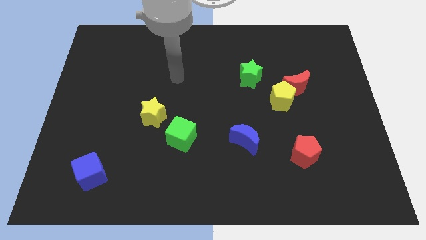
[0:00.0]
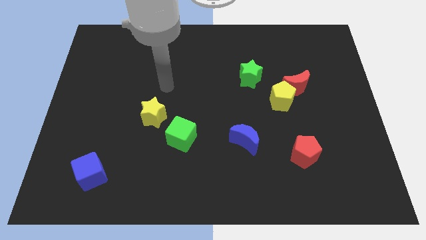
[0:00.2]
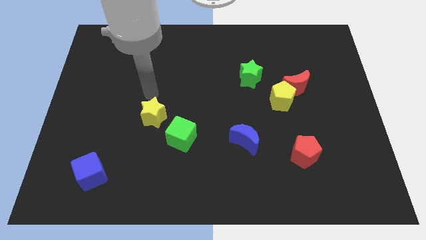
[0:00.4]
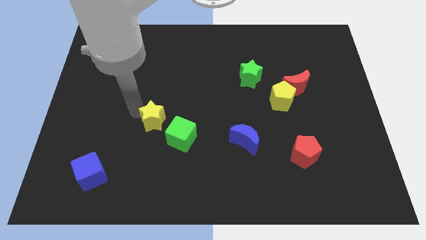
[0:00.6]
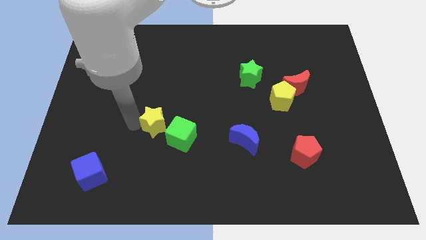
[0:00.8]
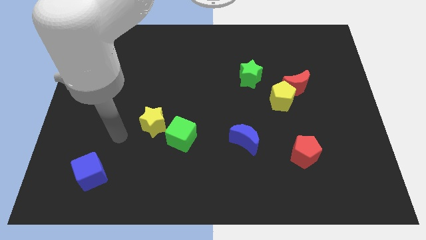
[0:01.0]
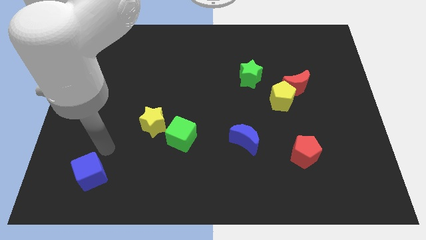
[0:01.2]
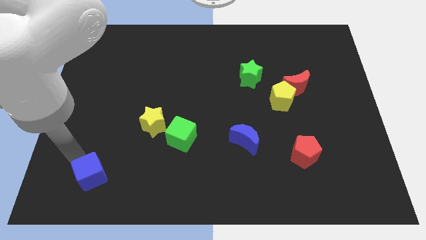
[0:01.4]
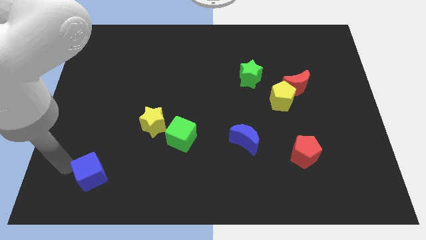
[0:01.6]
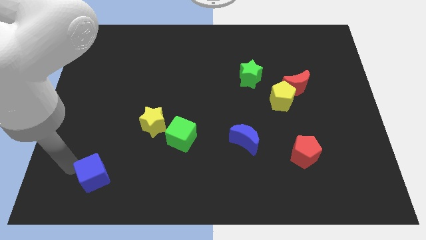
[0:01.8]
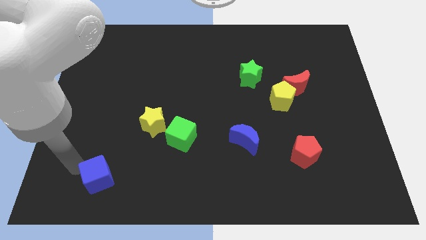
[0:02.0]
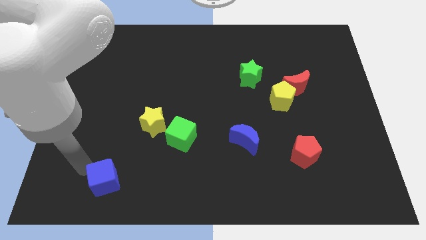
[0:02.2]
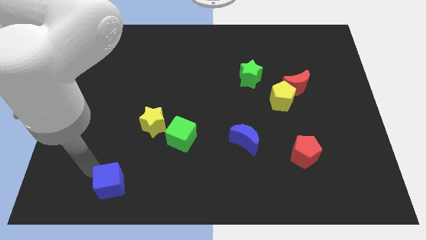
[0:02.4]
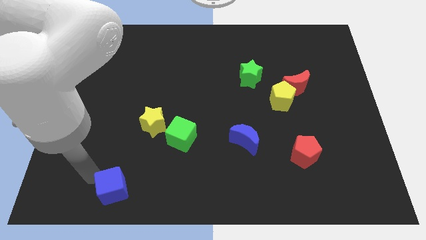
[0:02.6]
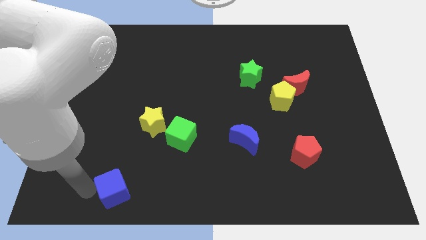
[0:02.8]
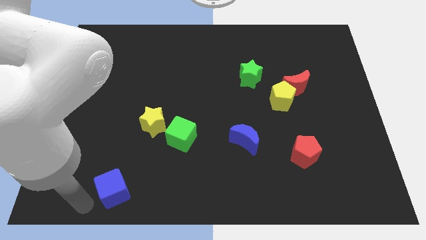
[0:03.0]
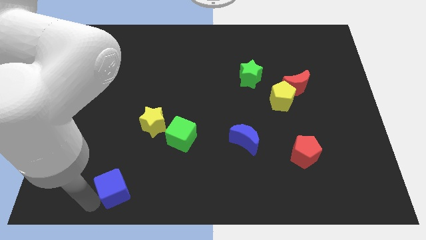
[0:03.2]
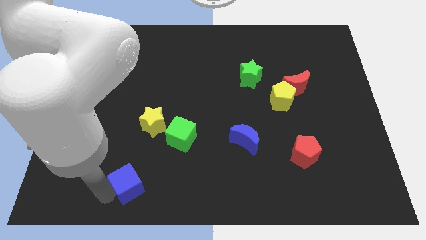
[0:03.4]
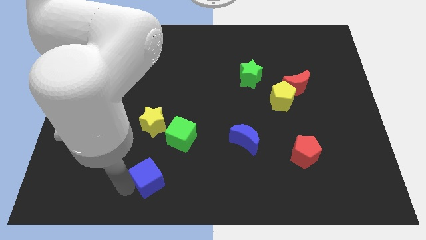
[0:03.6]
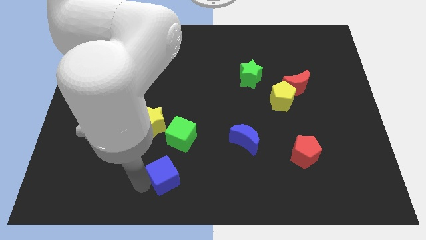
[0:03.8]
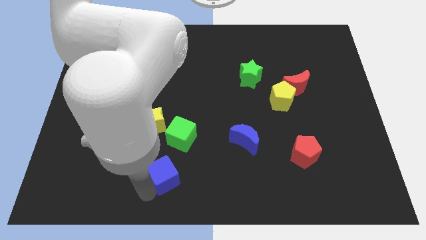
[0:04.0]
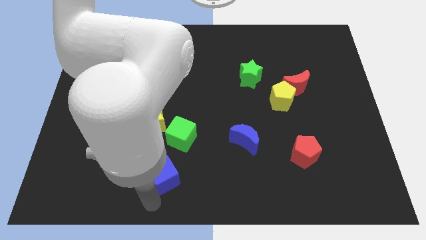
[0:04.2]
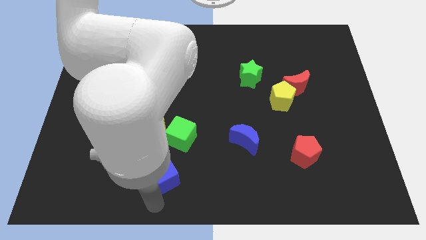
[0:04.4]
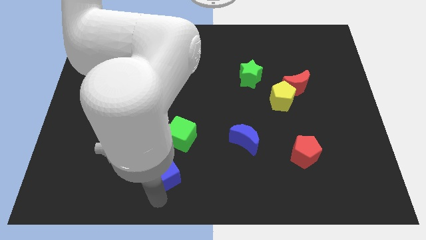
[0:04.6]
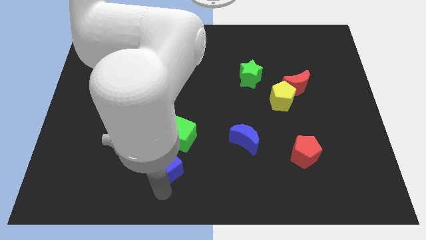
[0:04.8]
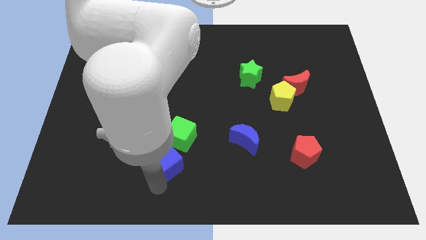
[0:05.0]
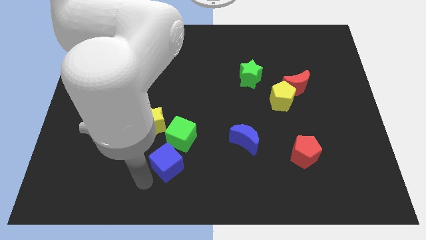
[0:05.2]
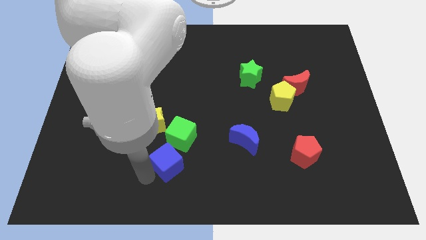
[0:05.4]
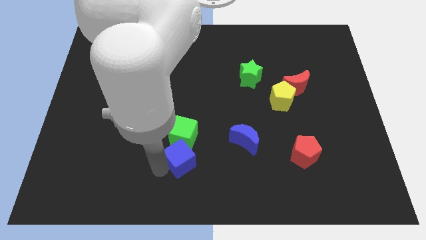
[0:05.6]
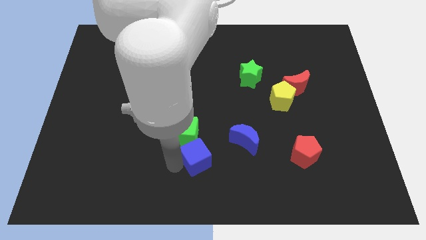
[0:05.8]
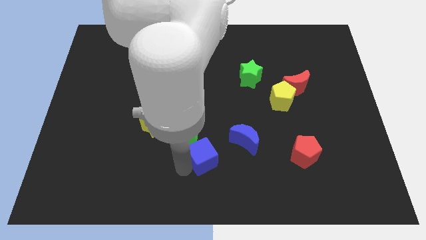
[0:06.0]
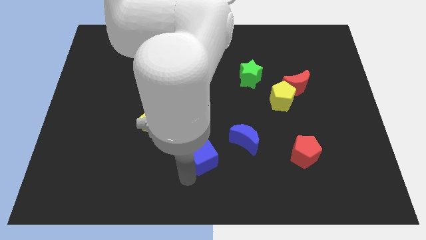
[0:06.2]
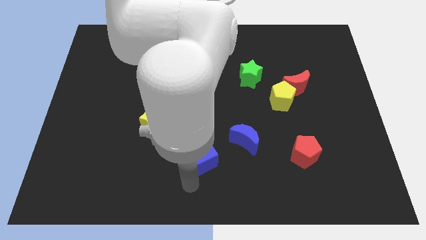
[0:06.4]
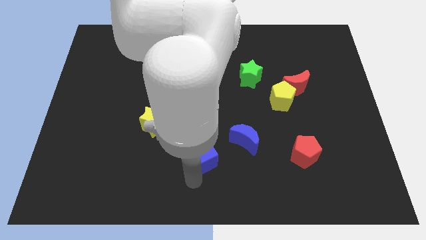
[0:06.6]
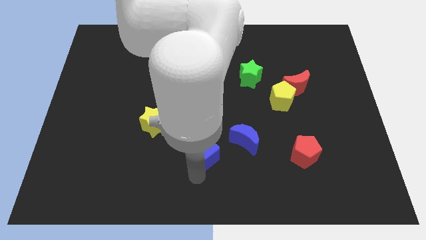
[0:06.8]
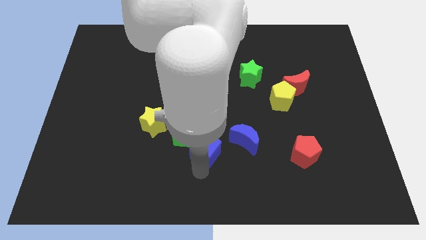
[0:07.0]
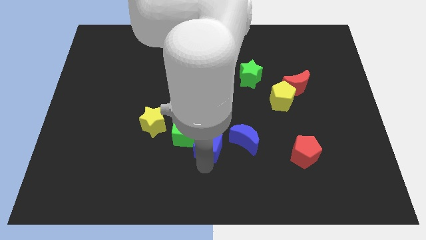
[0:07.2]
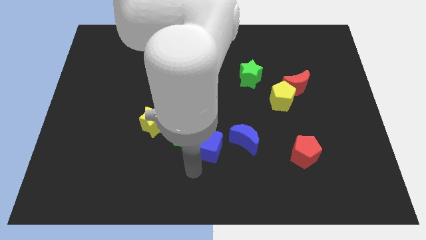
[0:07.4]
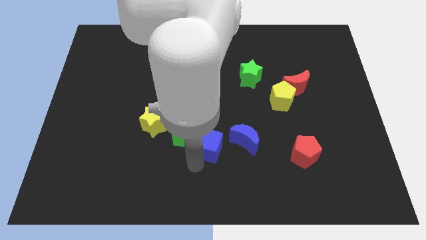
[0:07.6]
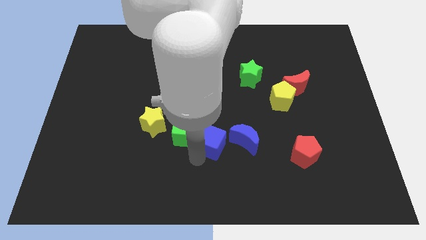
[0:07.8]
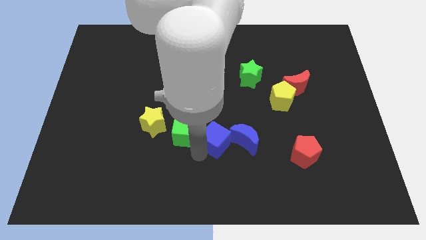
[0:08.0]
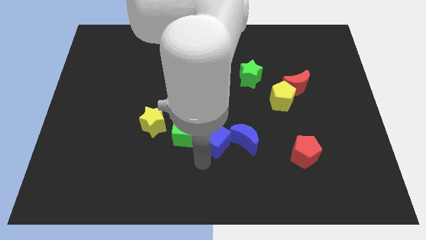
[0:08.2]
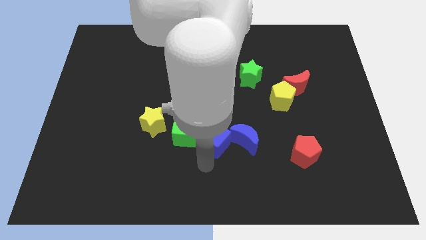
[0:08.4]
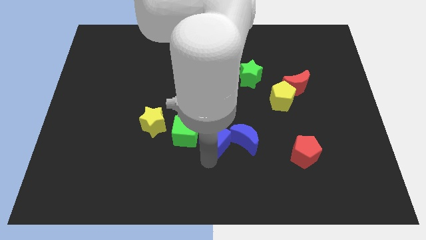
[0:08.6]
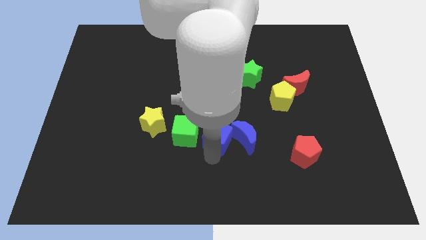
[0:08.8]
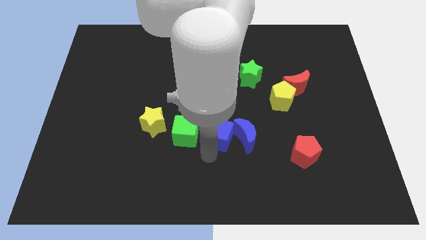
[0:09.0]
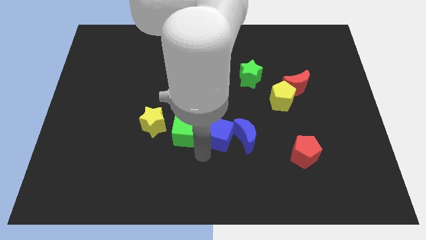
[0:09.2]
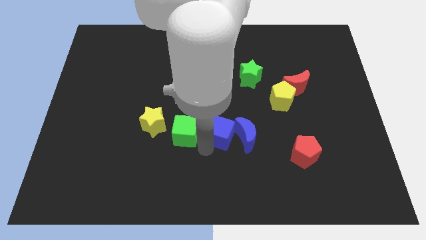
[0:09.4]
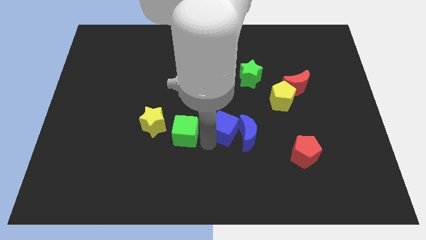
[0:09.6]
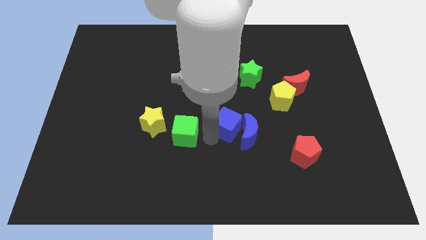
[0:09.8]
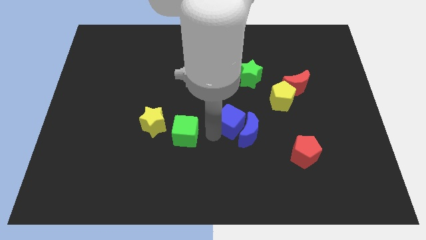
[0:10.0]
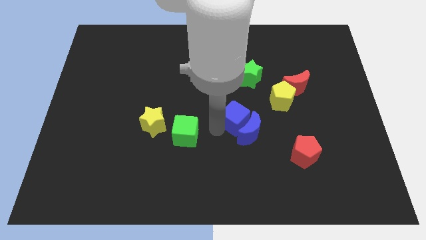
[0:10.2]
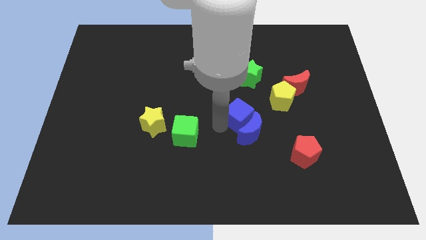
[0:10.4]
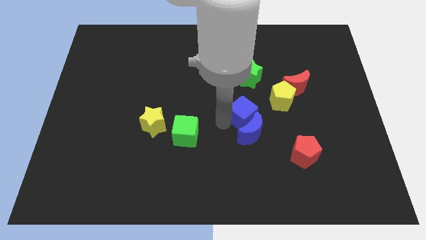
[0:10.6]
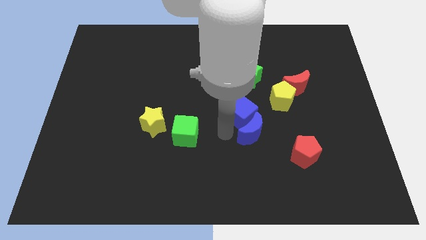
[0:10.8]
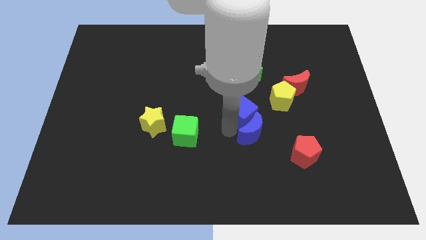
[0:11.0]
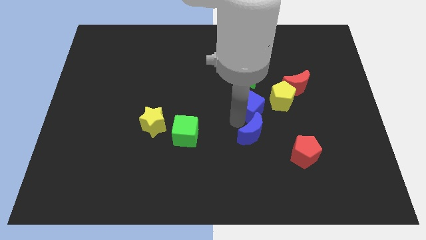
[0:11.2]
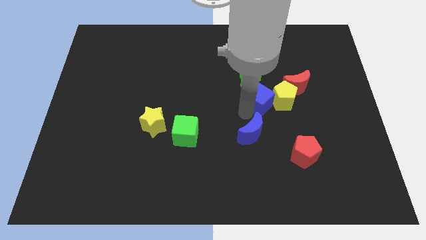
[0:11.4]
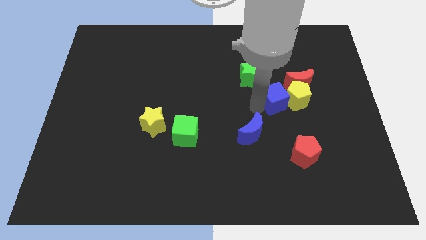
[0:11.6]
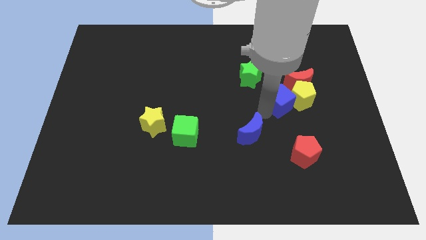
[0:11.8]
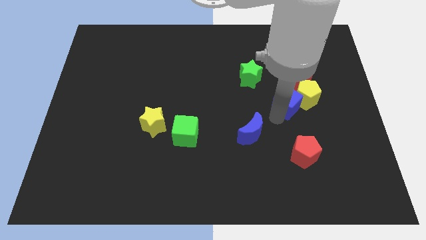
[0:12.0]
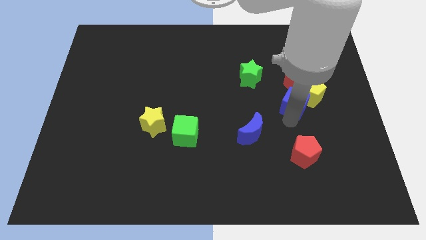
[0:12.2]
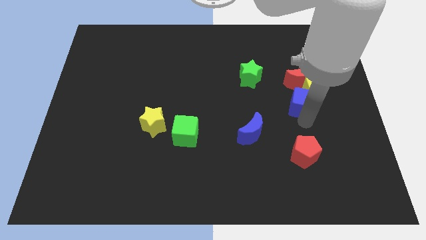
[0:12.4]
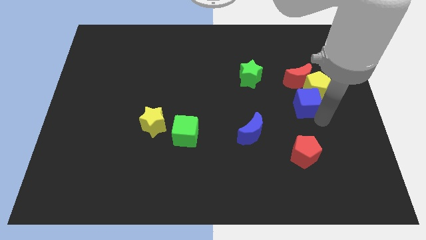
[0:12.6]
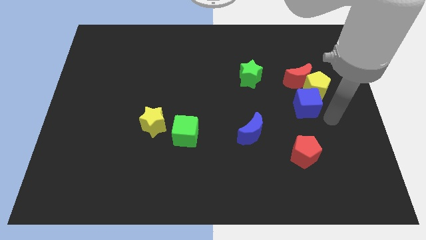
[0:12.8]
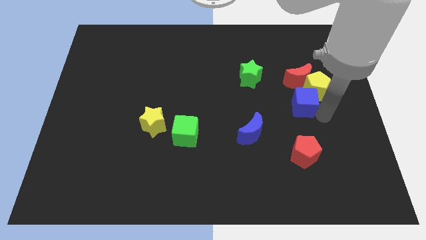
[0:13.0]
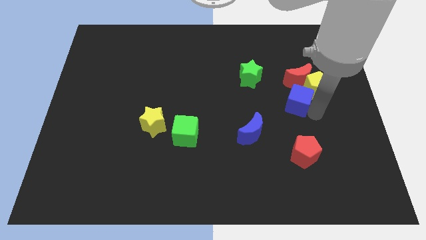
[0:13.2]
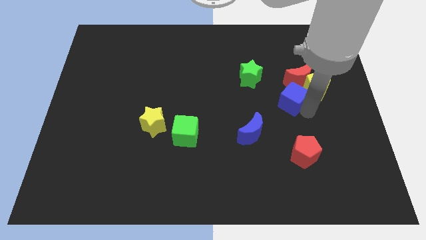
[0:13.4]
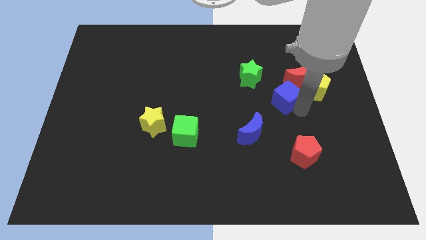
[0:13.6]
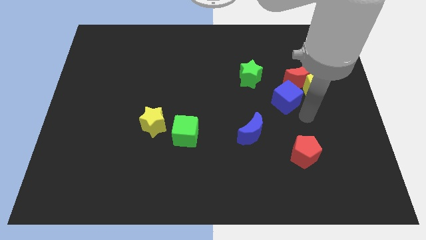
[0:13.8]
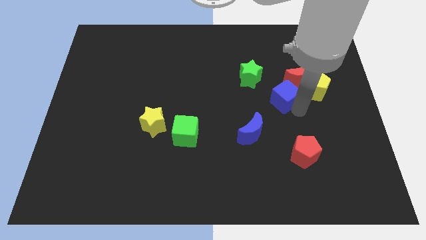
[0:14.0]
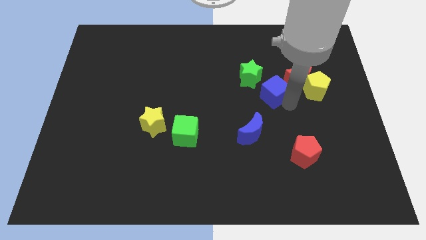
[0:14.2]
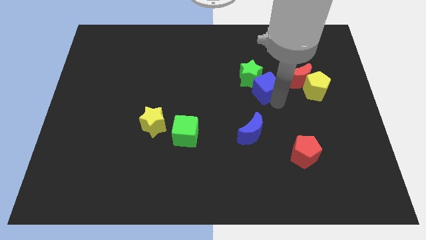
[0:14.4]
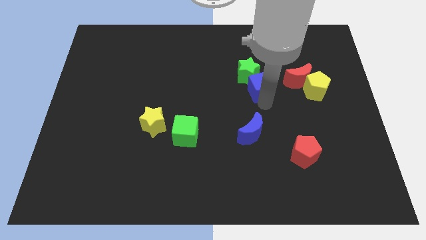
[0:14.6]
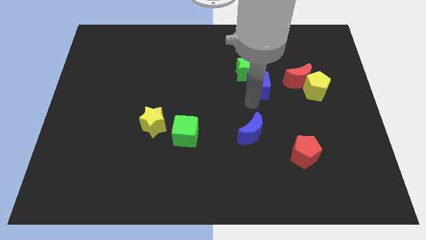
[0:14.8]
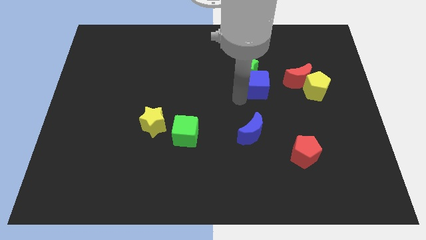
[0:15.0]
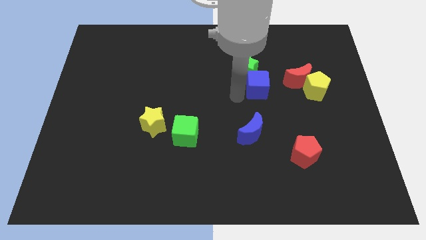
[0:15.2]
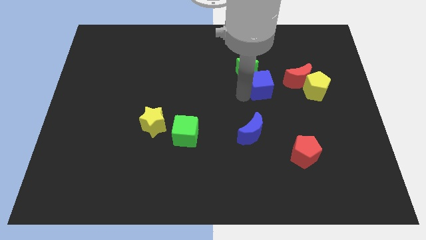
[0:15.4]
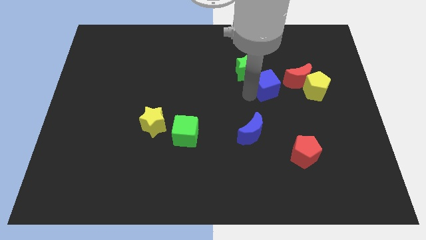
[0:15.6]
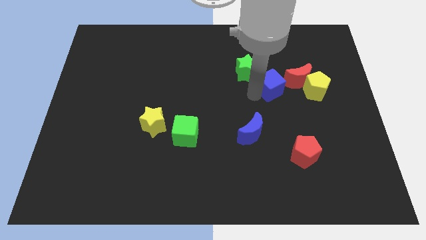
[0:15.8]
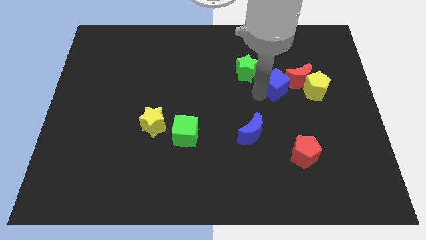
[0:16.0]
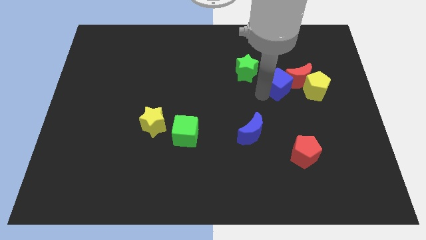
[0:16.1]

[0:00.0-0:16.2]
push the blue cube to the red moon
